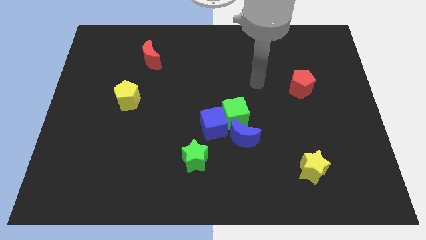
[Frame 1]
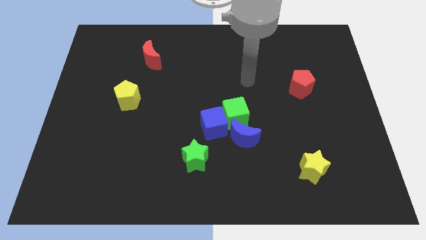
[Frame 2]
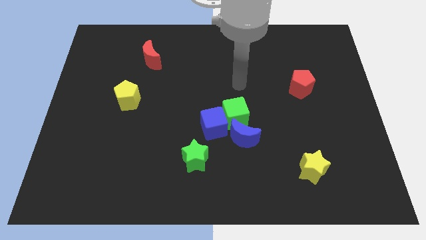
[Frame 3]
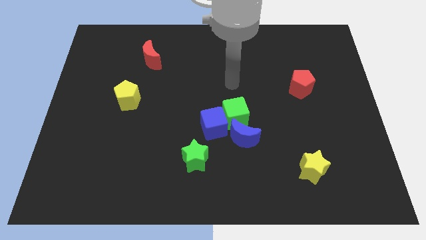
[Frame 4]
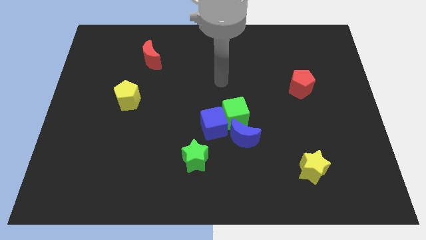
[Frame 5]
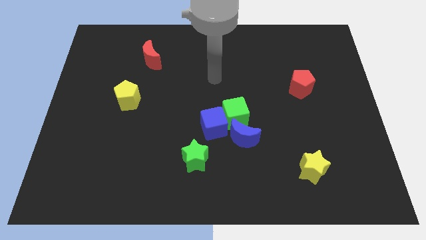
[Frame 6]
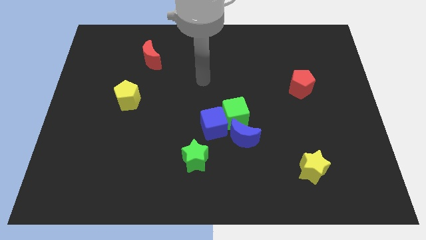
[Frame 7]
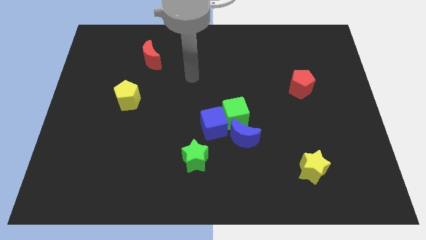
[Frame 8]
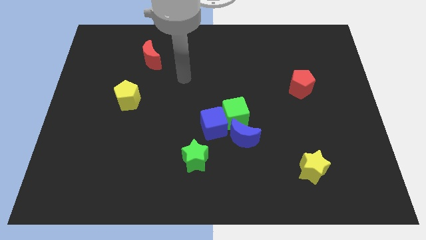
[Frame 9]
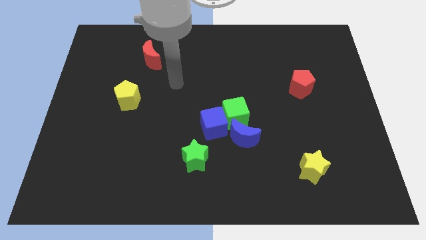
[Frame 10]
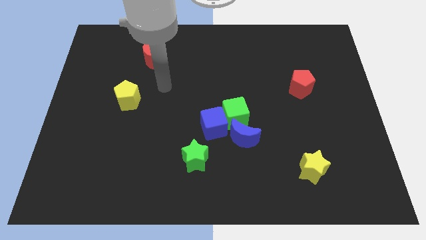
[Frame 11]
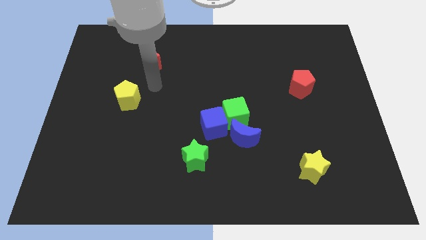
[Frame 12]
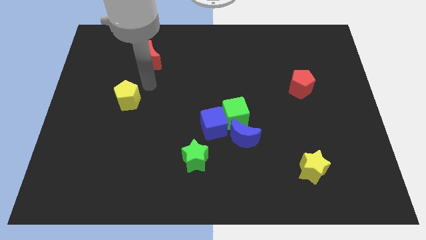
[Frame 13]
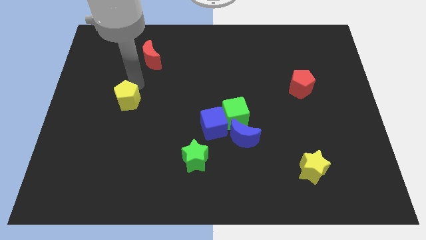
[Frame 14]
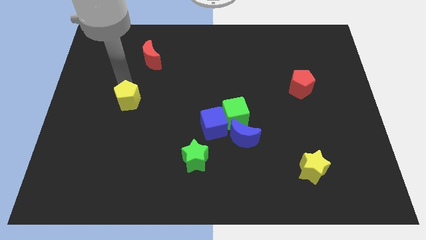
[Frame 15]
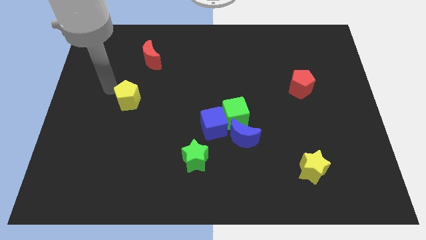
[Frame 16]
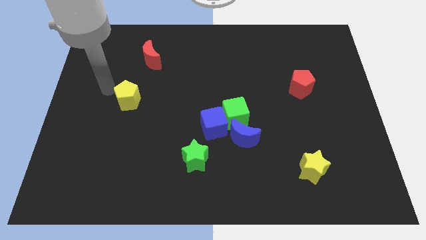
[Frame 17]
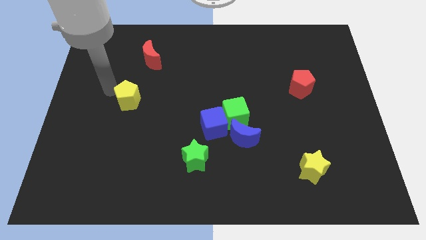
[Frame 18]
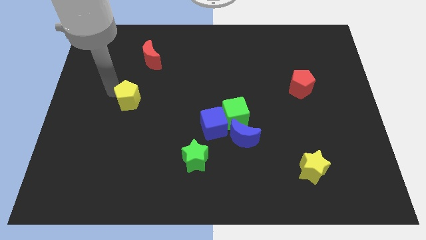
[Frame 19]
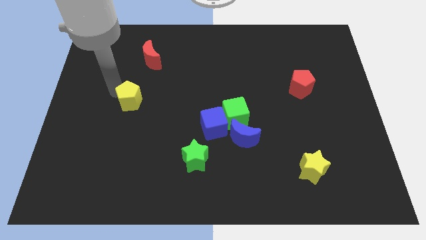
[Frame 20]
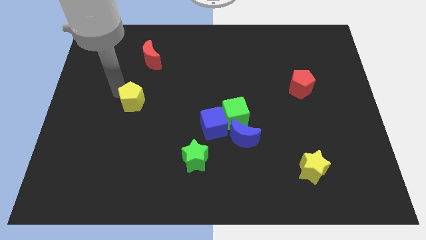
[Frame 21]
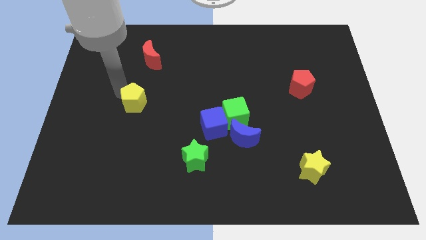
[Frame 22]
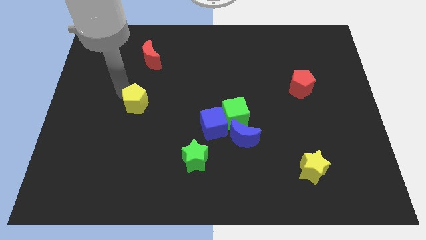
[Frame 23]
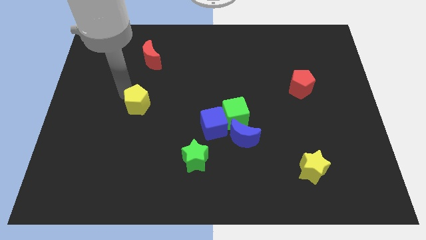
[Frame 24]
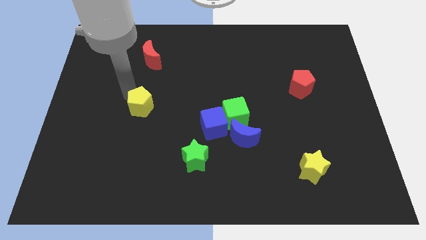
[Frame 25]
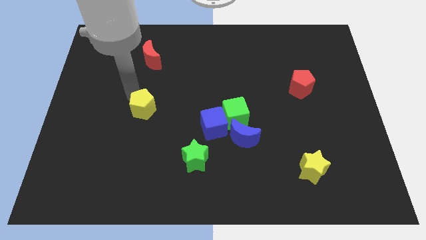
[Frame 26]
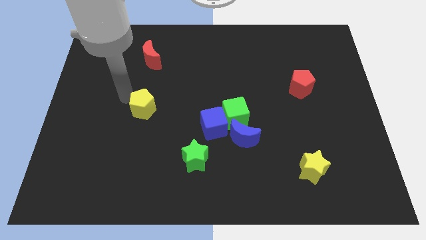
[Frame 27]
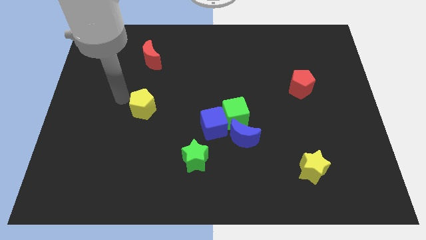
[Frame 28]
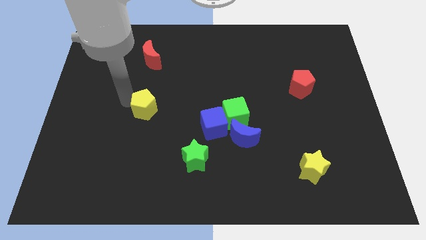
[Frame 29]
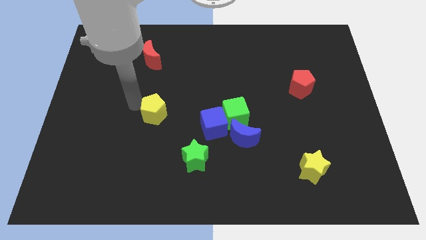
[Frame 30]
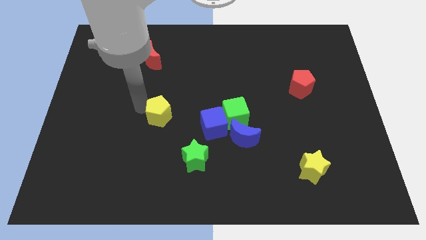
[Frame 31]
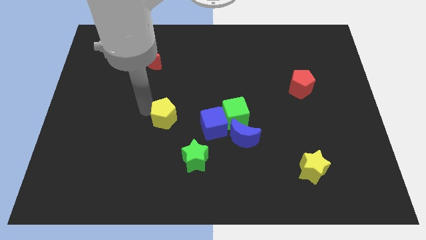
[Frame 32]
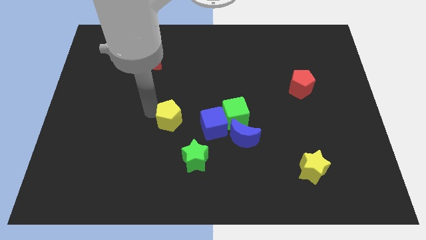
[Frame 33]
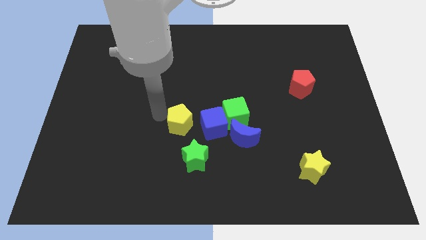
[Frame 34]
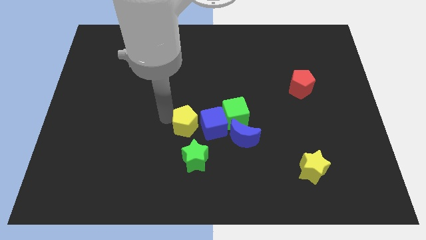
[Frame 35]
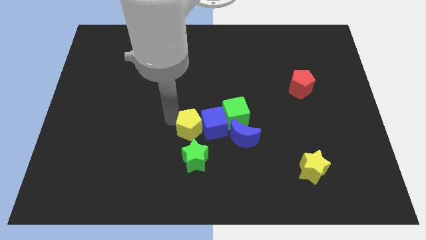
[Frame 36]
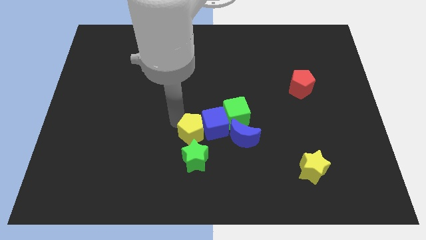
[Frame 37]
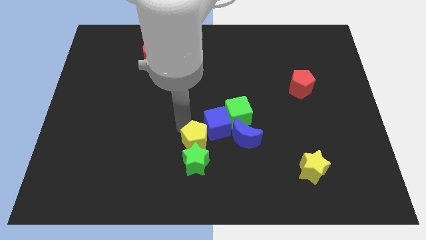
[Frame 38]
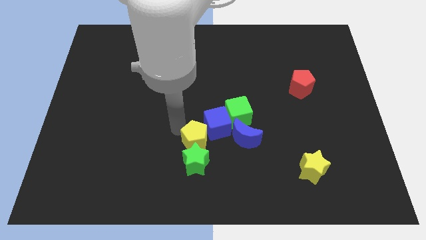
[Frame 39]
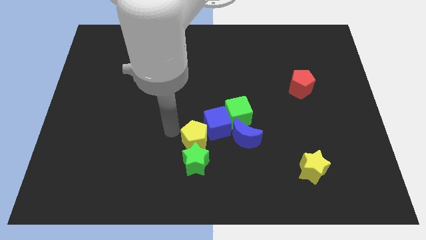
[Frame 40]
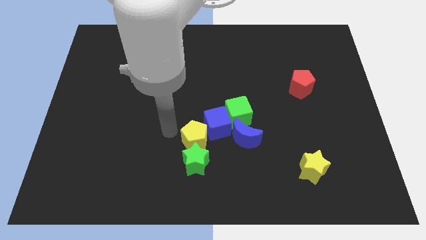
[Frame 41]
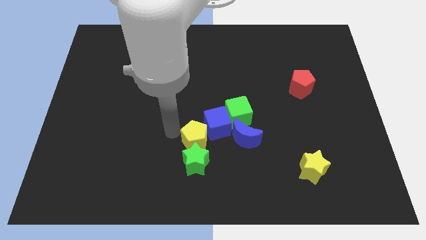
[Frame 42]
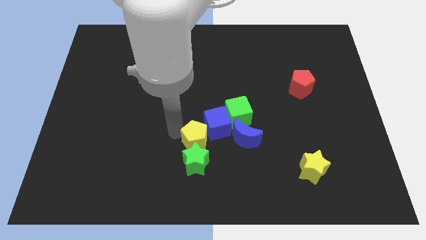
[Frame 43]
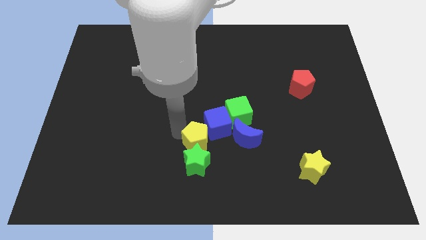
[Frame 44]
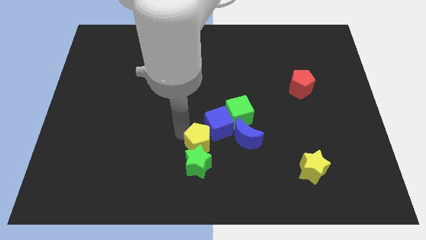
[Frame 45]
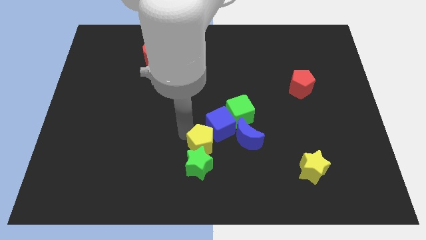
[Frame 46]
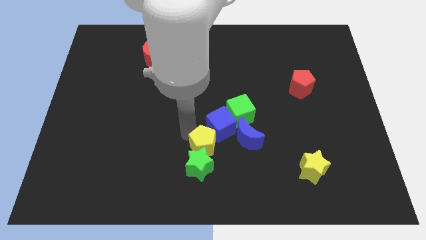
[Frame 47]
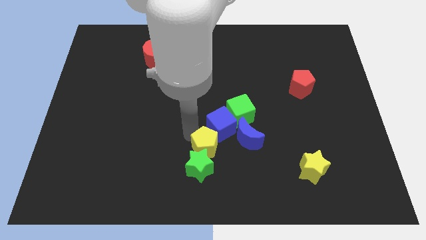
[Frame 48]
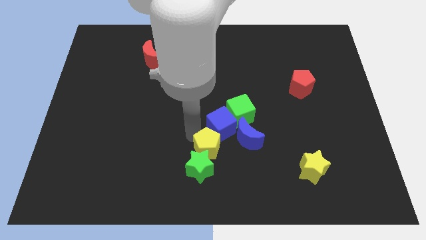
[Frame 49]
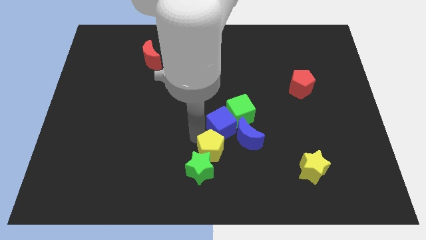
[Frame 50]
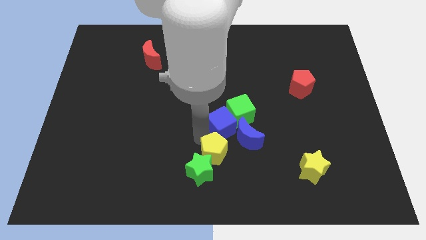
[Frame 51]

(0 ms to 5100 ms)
move the yellow pentagon to the right side of the green star

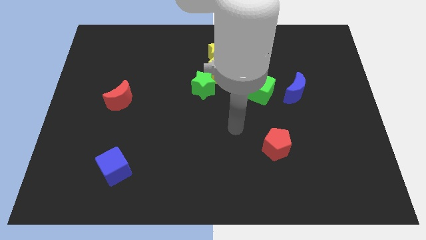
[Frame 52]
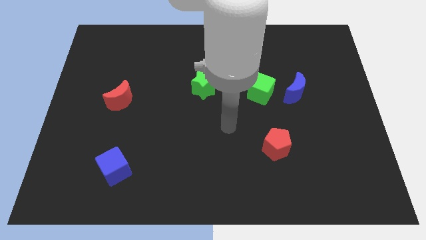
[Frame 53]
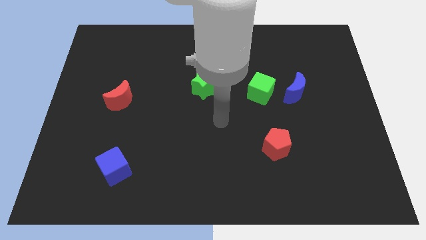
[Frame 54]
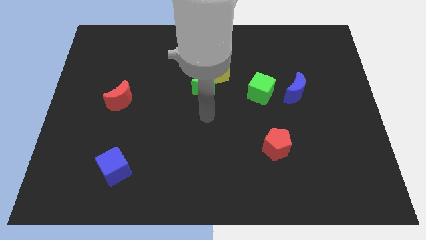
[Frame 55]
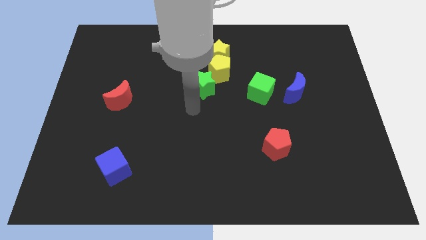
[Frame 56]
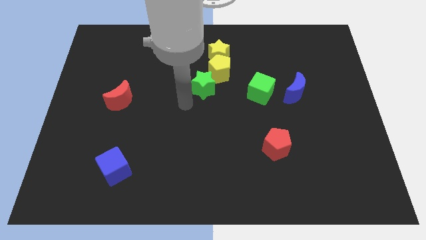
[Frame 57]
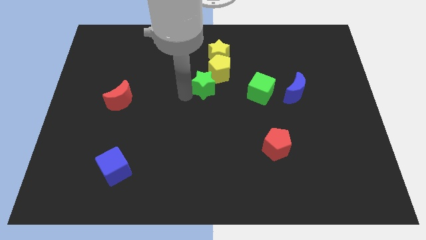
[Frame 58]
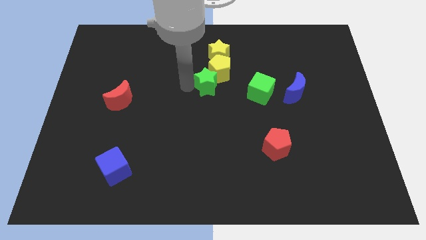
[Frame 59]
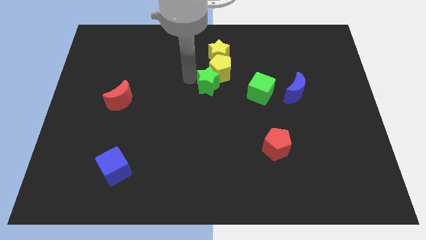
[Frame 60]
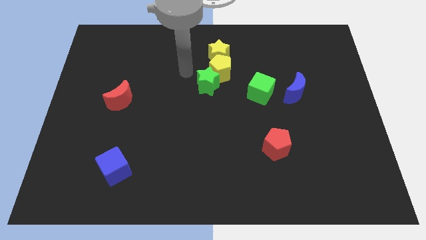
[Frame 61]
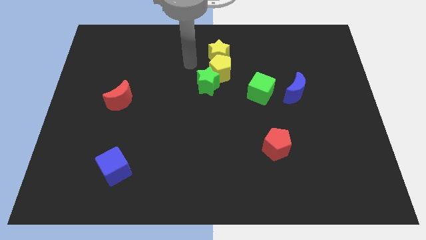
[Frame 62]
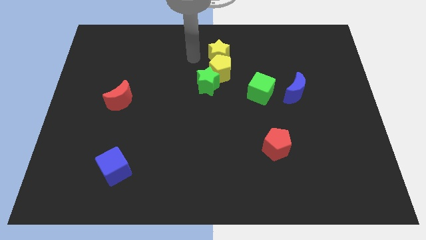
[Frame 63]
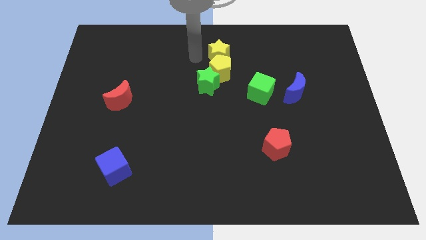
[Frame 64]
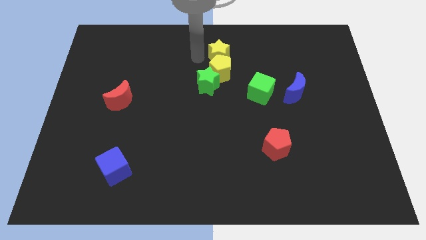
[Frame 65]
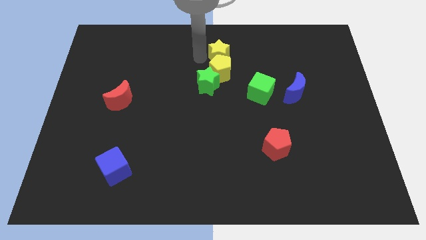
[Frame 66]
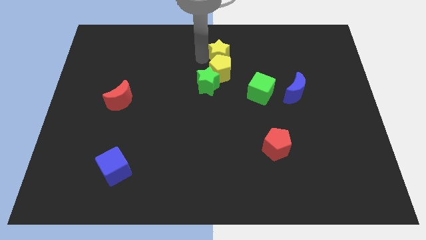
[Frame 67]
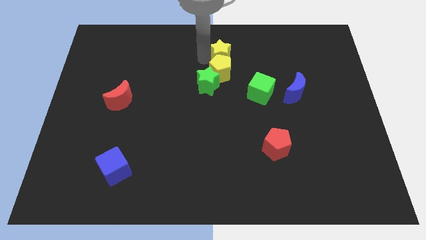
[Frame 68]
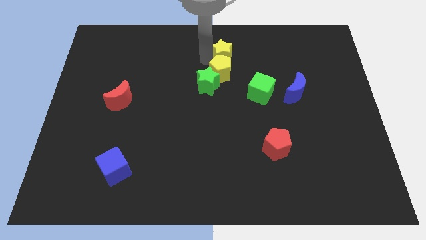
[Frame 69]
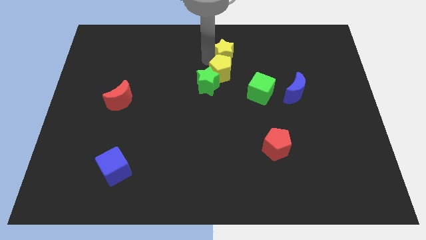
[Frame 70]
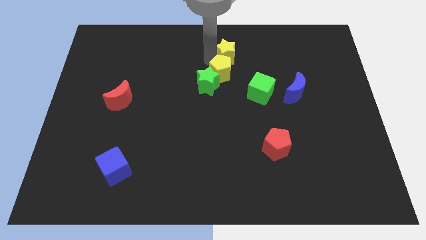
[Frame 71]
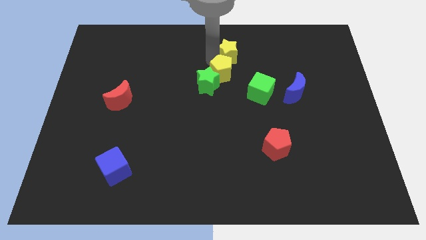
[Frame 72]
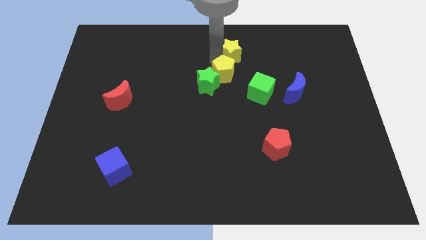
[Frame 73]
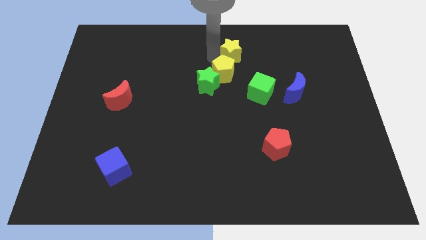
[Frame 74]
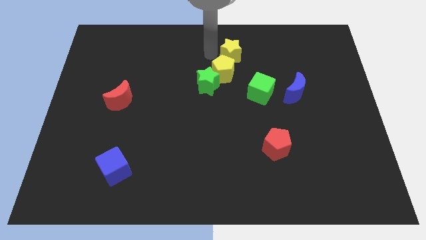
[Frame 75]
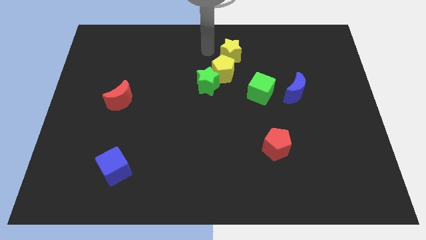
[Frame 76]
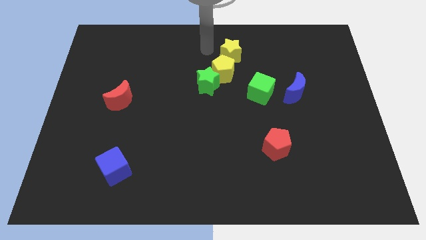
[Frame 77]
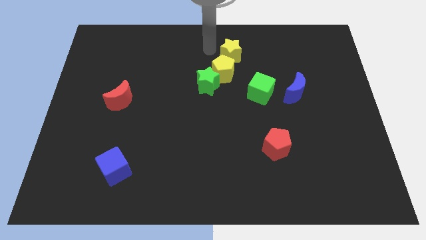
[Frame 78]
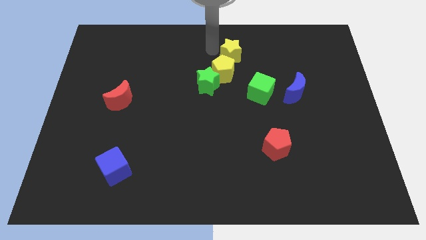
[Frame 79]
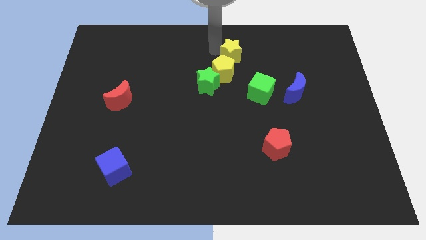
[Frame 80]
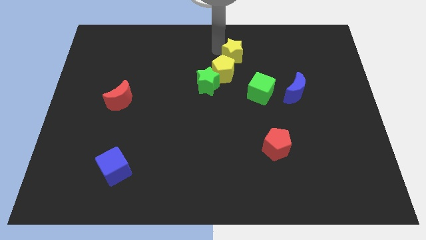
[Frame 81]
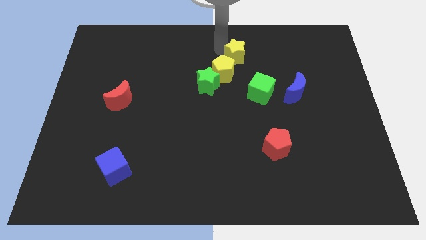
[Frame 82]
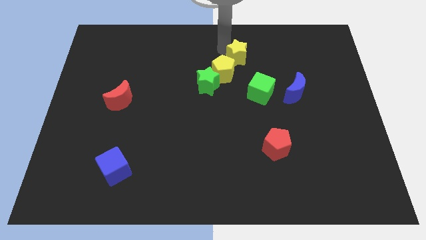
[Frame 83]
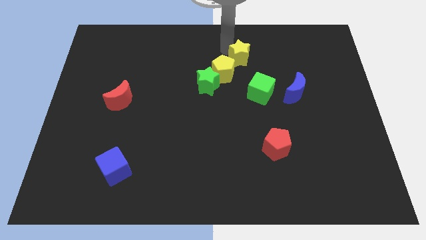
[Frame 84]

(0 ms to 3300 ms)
push the yellow star to the top of the green cube

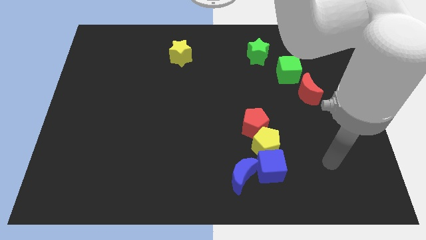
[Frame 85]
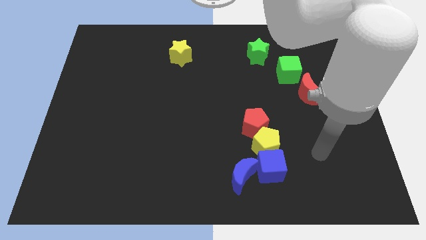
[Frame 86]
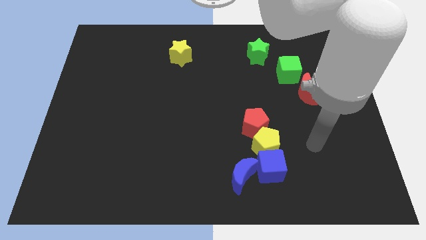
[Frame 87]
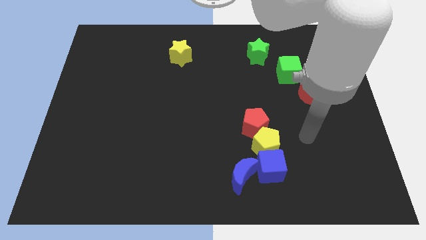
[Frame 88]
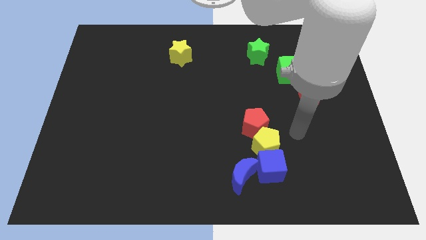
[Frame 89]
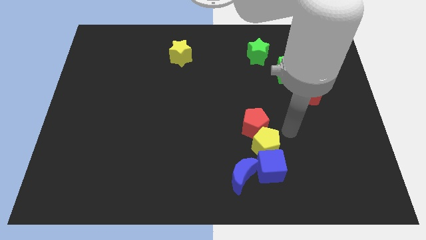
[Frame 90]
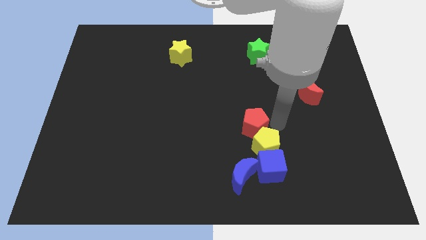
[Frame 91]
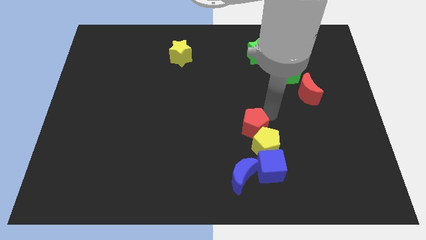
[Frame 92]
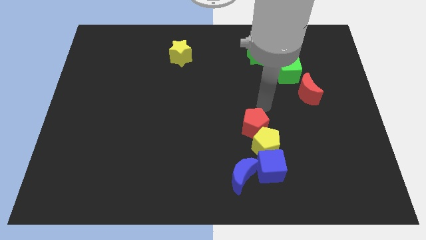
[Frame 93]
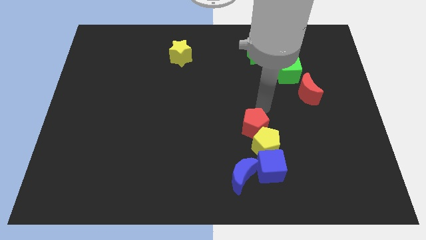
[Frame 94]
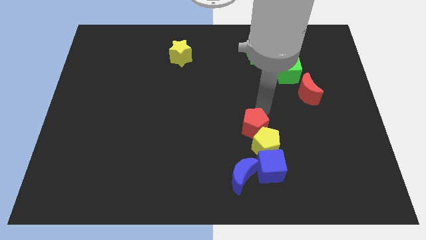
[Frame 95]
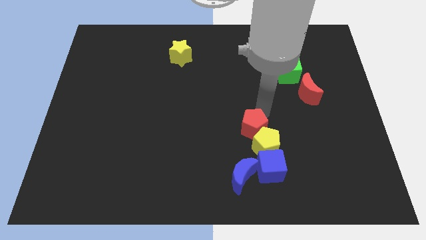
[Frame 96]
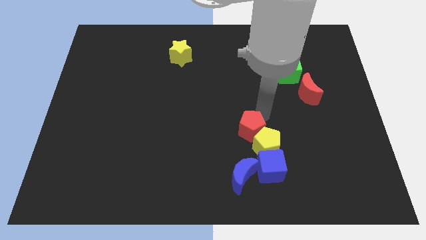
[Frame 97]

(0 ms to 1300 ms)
slide the red pentagon to the top left of the blue cube
